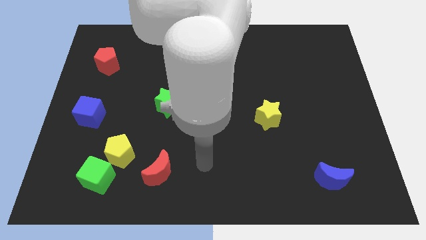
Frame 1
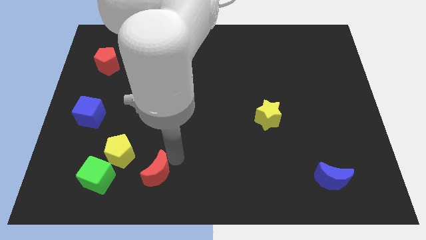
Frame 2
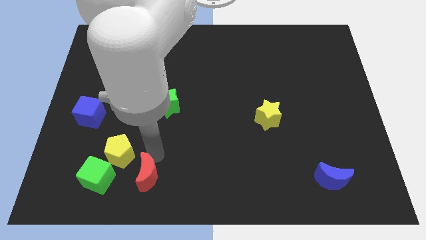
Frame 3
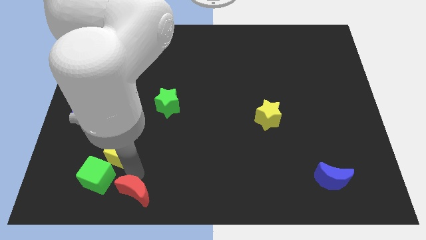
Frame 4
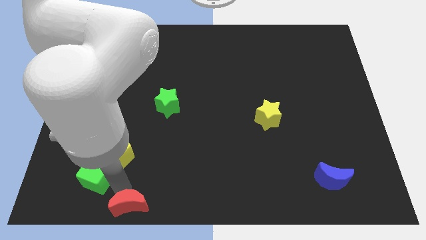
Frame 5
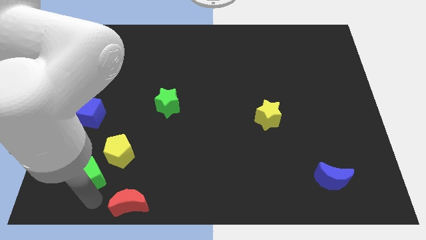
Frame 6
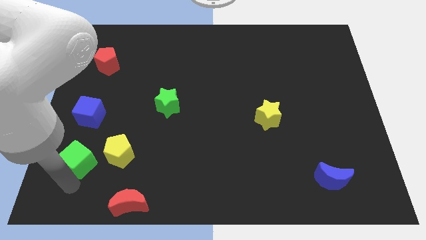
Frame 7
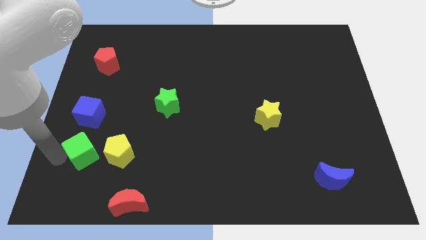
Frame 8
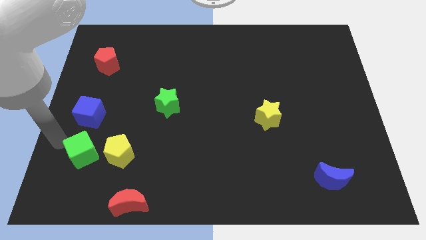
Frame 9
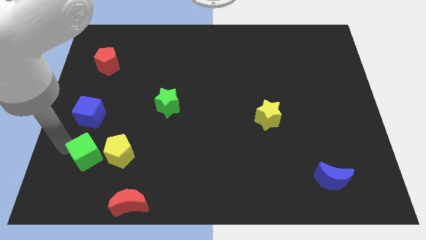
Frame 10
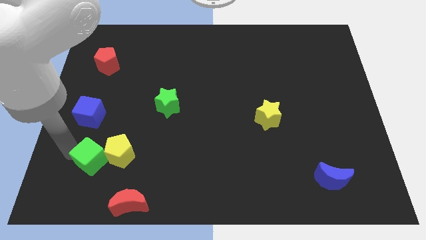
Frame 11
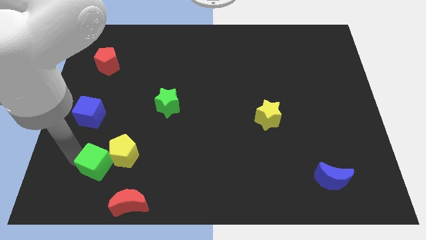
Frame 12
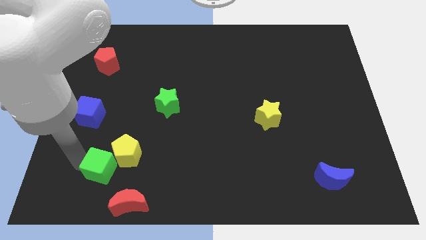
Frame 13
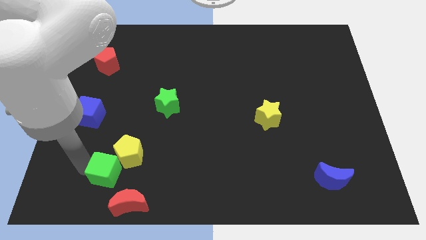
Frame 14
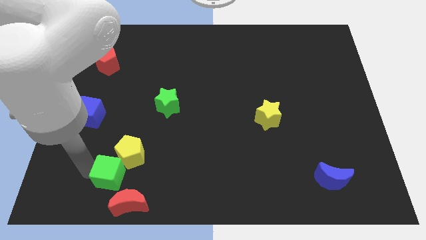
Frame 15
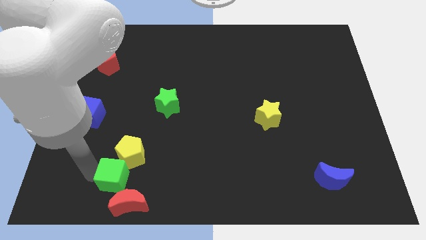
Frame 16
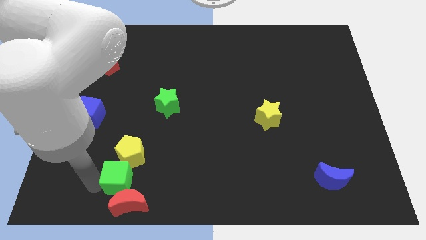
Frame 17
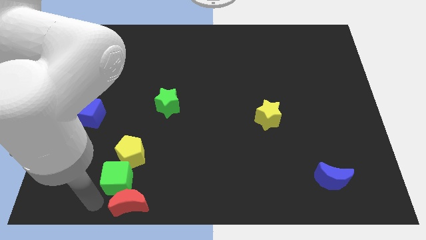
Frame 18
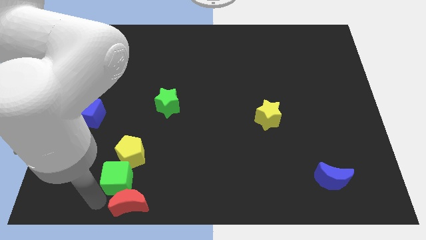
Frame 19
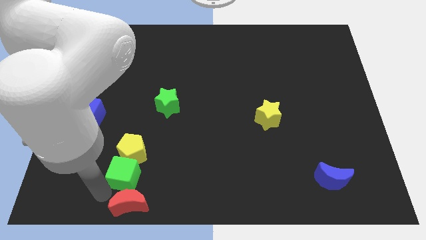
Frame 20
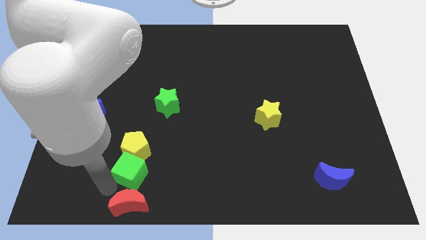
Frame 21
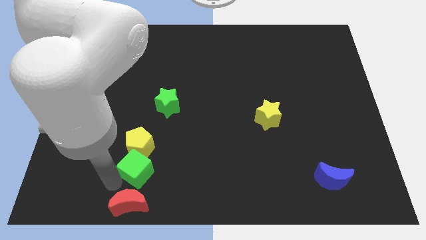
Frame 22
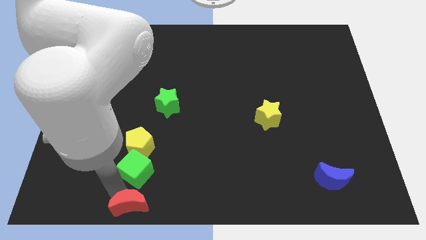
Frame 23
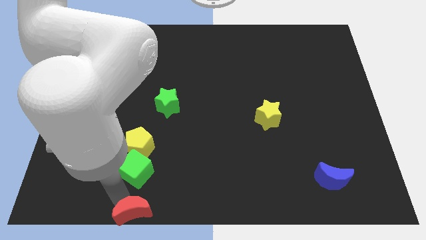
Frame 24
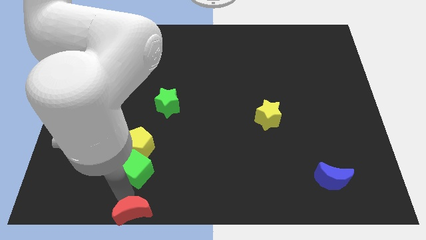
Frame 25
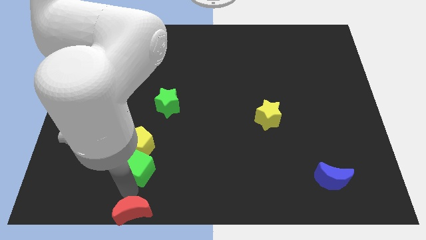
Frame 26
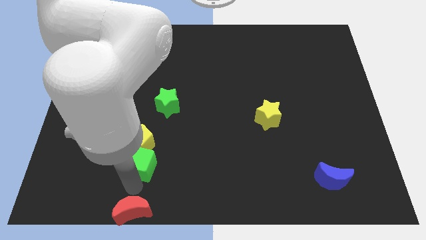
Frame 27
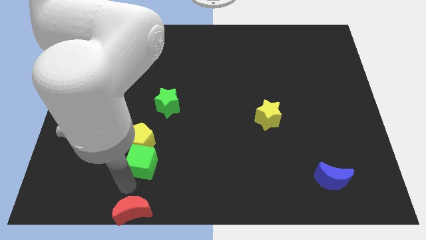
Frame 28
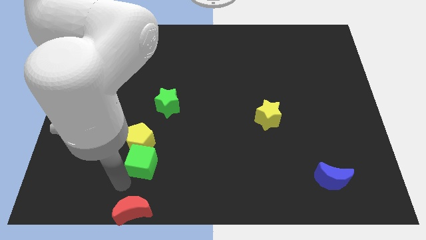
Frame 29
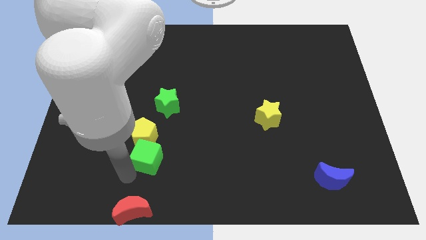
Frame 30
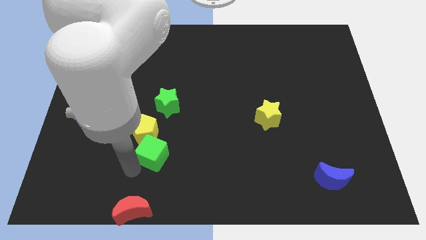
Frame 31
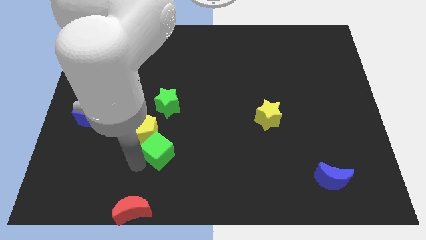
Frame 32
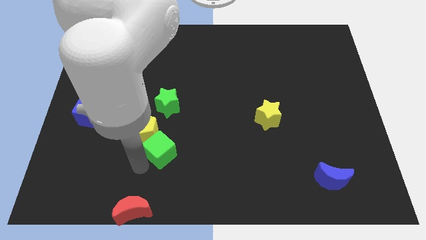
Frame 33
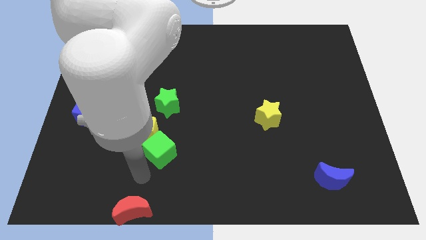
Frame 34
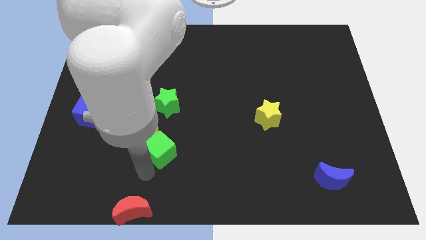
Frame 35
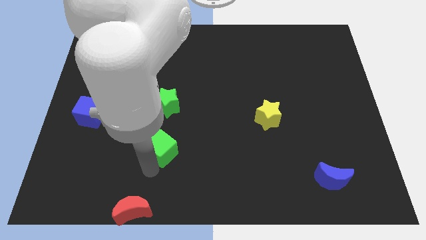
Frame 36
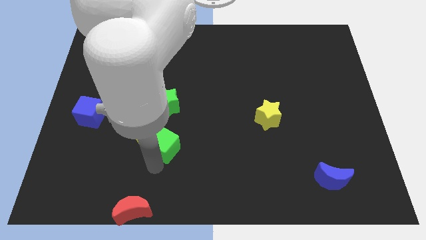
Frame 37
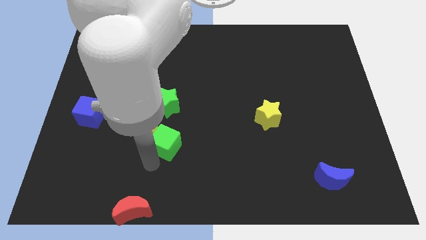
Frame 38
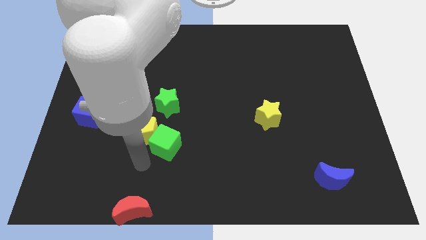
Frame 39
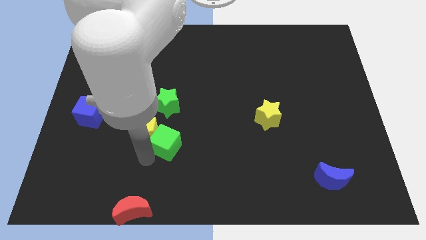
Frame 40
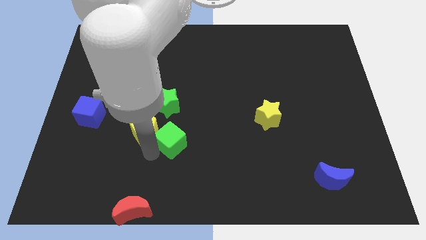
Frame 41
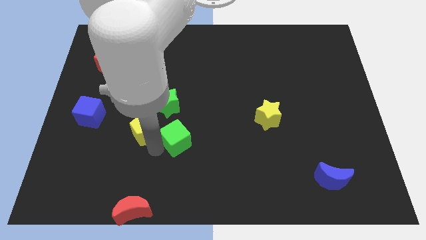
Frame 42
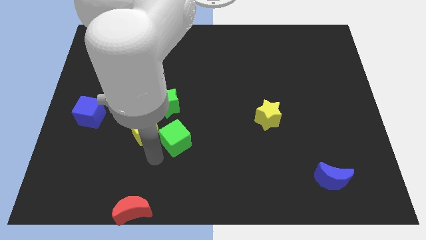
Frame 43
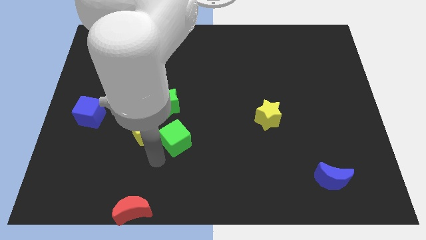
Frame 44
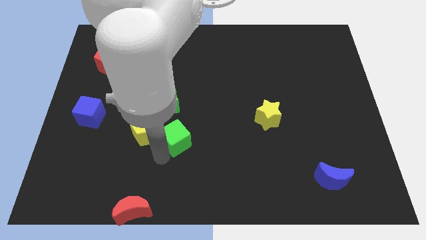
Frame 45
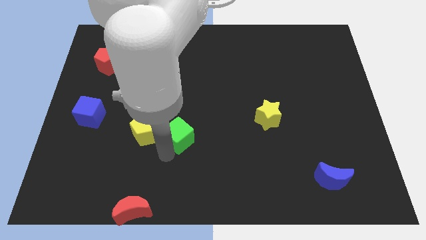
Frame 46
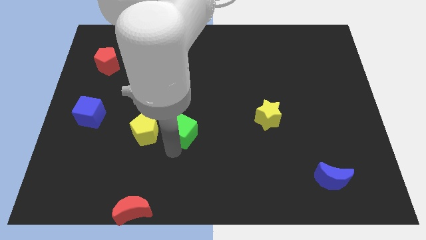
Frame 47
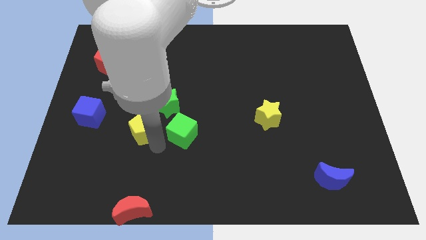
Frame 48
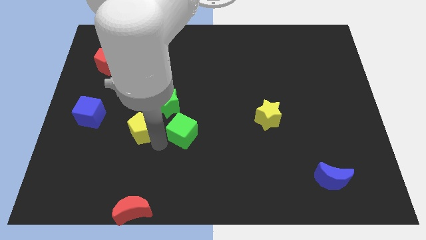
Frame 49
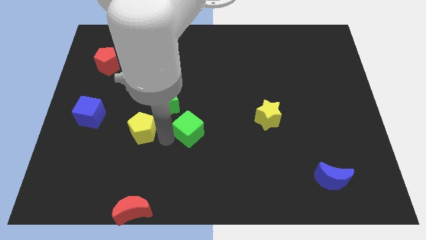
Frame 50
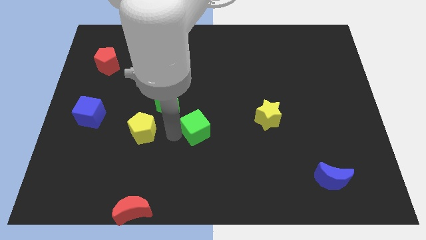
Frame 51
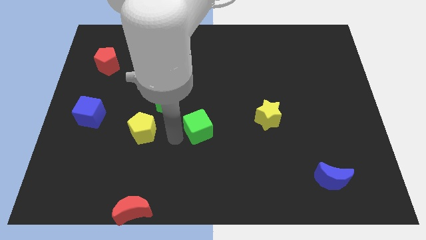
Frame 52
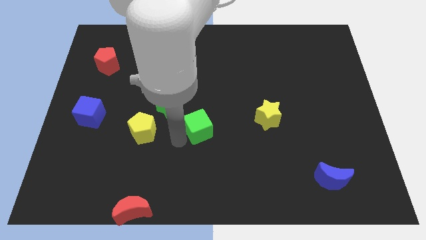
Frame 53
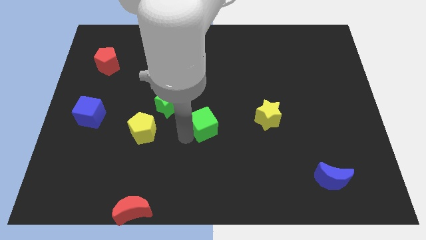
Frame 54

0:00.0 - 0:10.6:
move the green cube to the left side of the yellow star

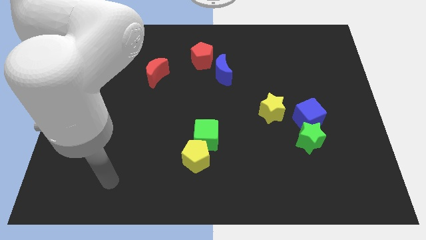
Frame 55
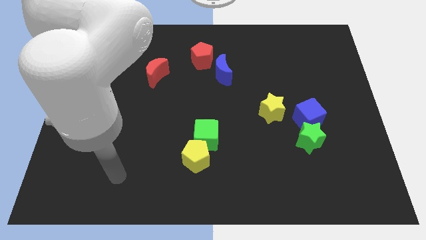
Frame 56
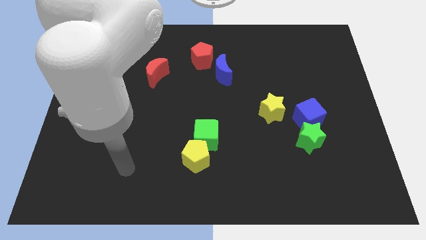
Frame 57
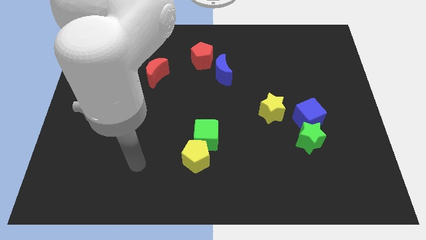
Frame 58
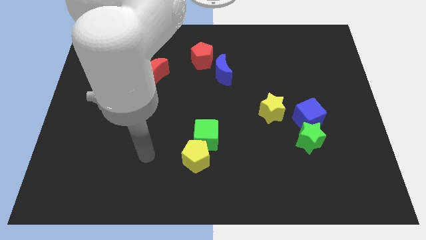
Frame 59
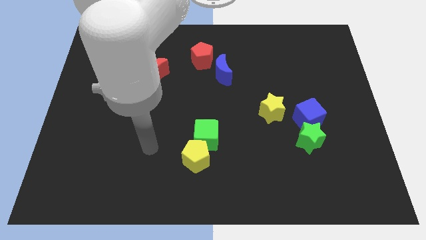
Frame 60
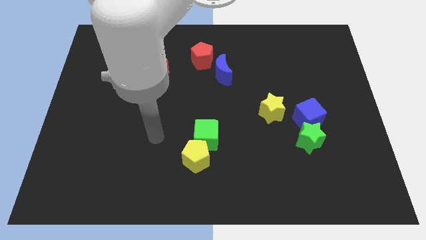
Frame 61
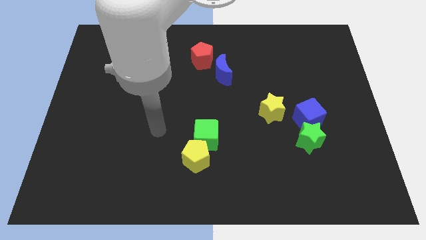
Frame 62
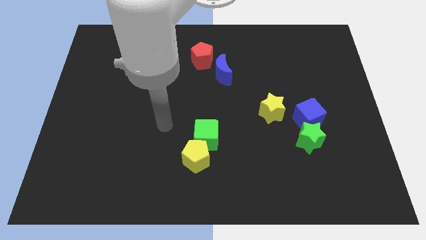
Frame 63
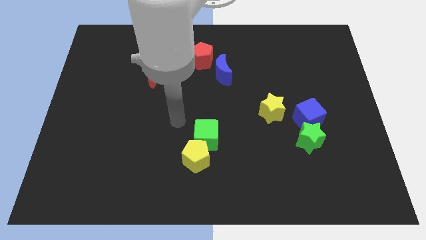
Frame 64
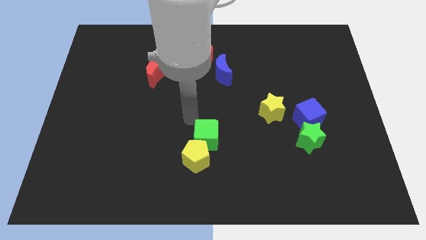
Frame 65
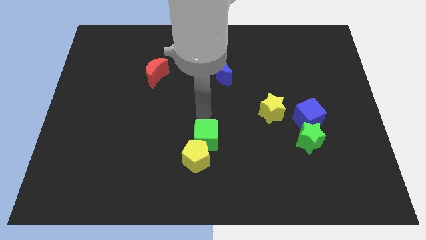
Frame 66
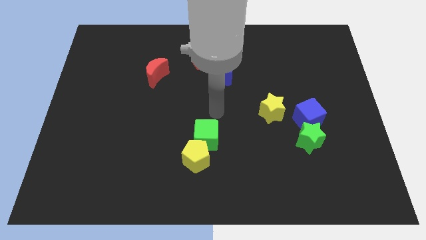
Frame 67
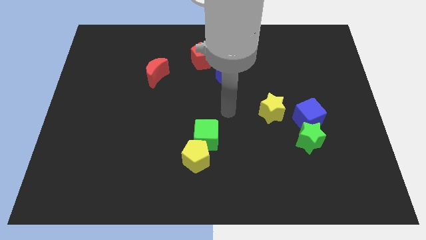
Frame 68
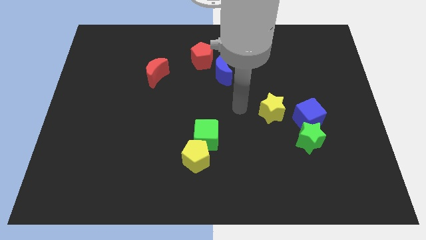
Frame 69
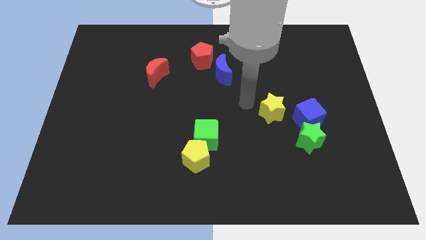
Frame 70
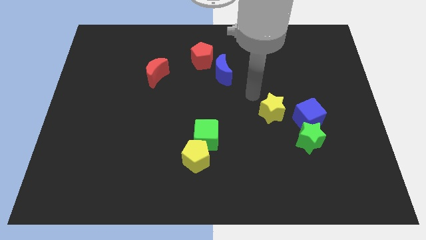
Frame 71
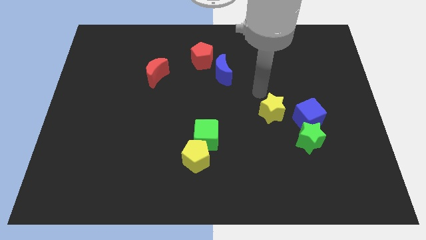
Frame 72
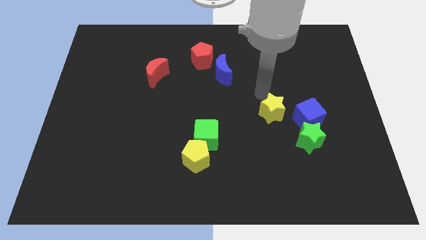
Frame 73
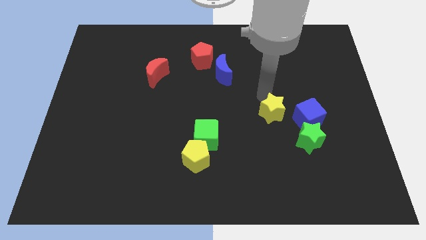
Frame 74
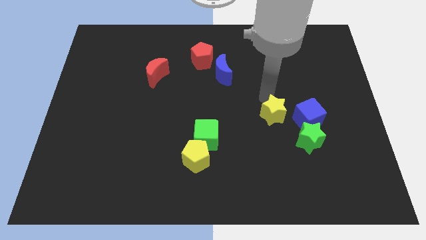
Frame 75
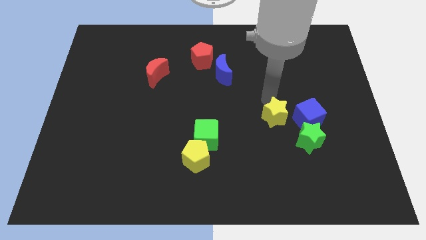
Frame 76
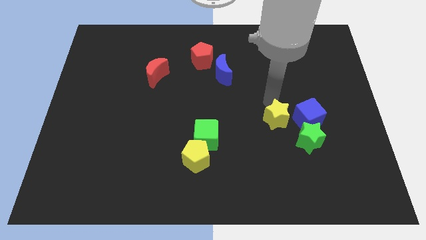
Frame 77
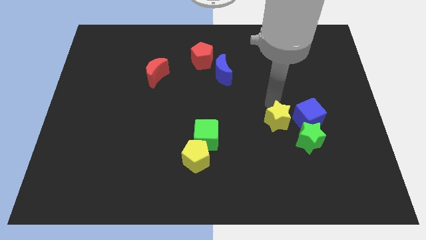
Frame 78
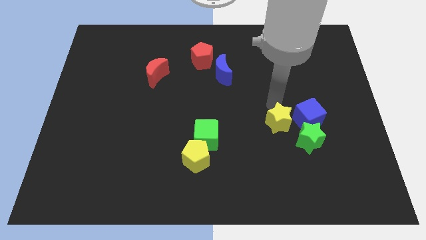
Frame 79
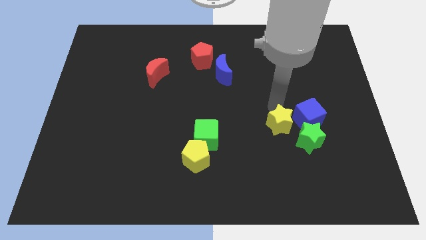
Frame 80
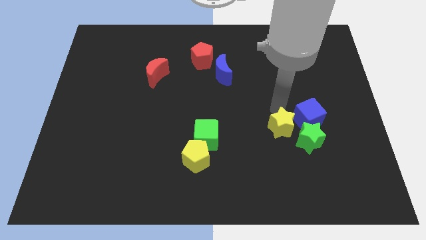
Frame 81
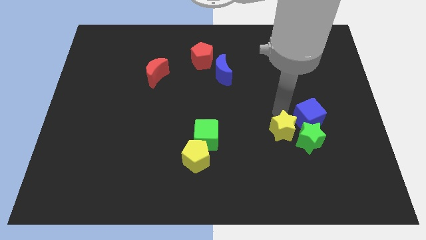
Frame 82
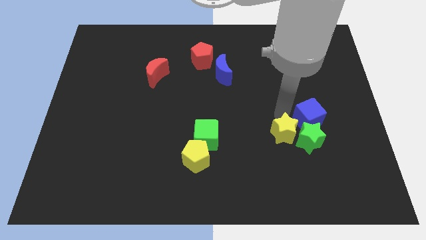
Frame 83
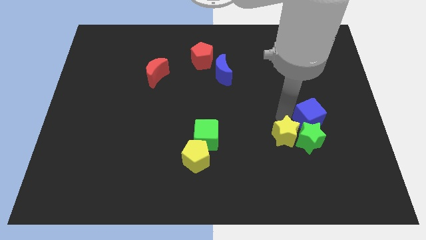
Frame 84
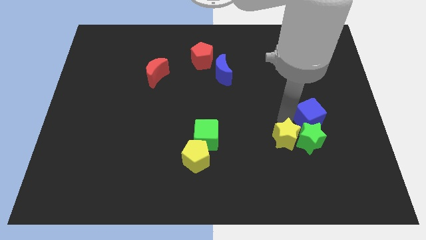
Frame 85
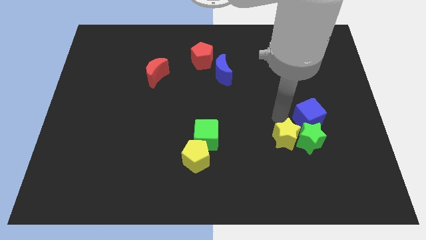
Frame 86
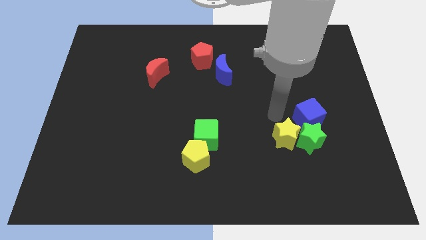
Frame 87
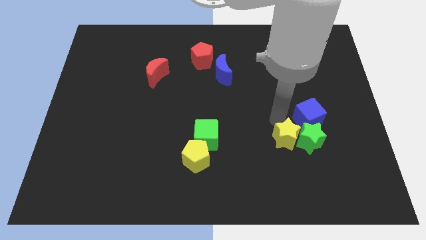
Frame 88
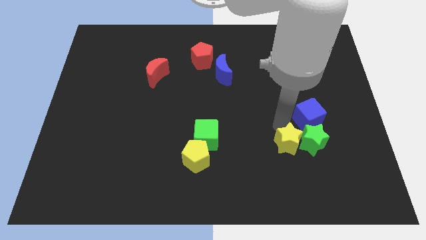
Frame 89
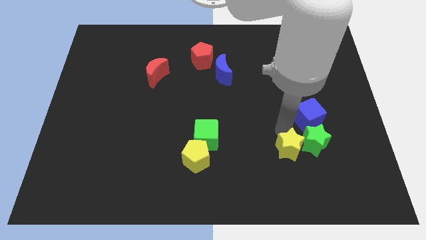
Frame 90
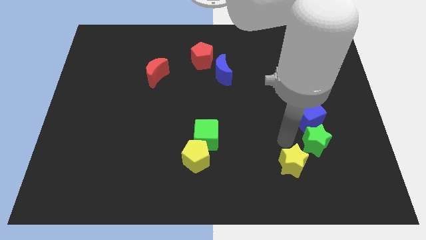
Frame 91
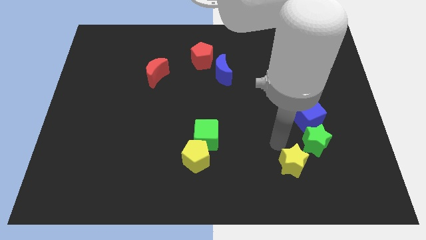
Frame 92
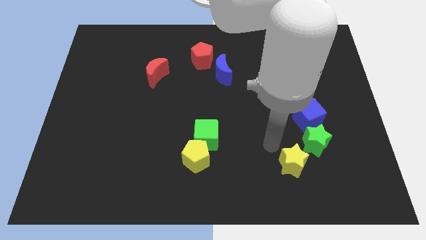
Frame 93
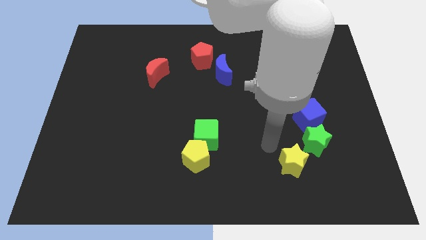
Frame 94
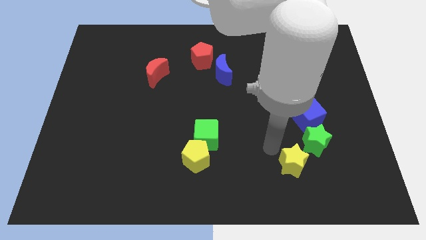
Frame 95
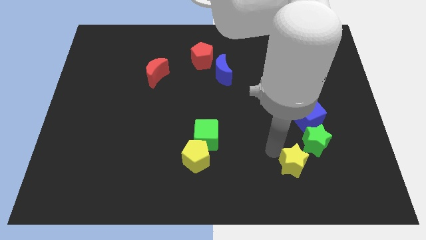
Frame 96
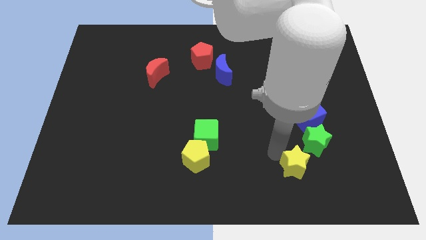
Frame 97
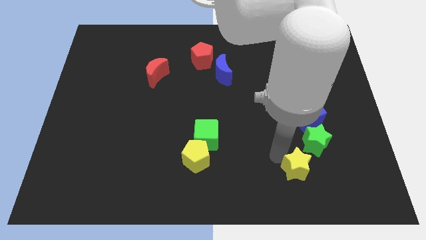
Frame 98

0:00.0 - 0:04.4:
push the yellow star to the bottom side of the green star
